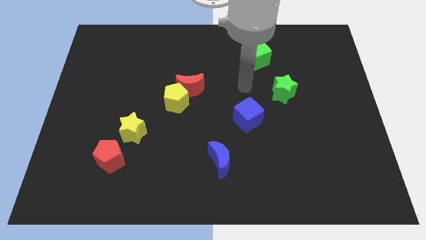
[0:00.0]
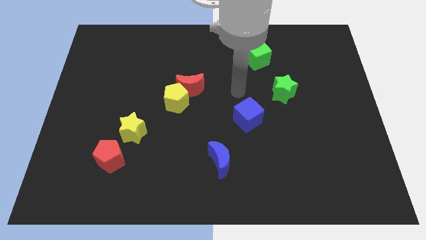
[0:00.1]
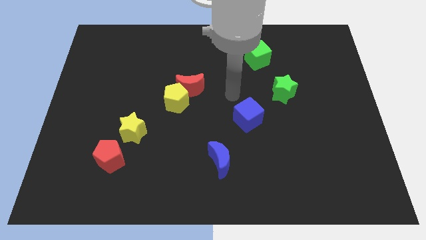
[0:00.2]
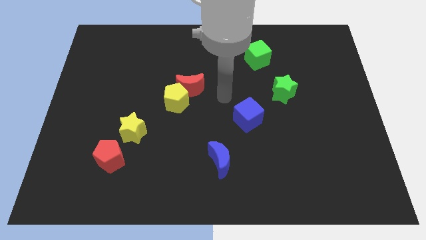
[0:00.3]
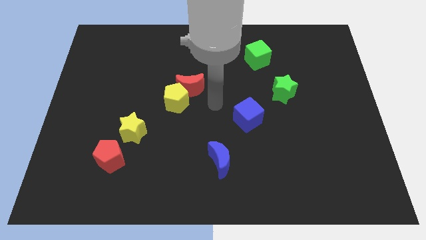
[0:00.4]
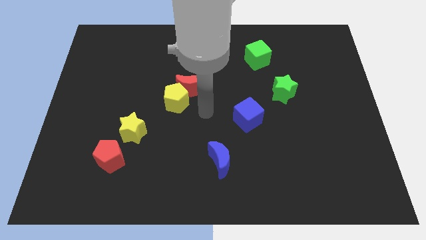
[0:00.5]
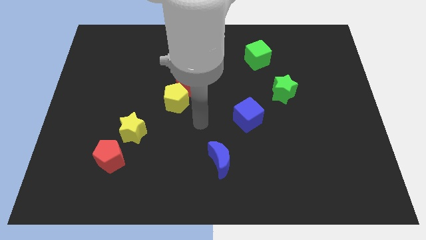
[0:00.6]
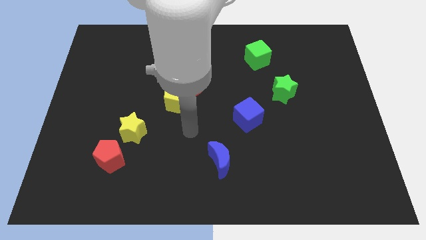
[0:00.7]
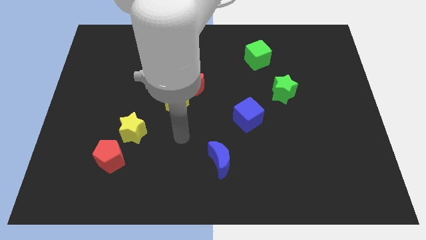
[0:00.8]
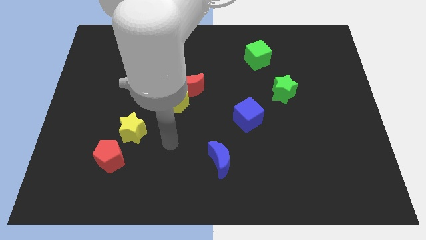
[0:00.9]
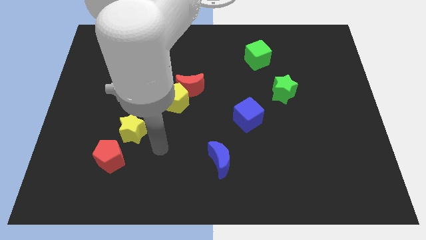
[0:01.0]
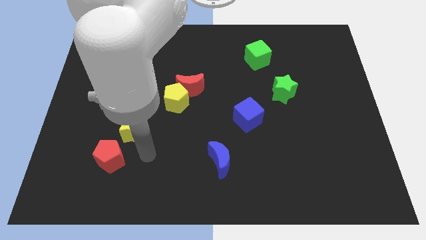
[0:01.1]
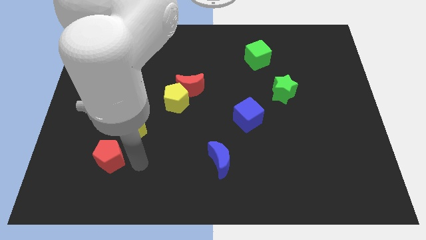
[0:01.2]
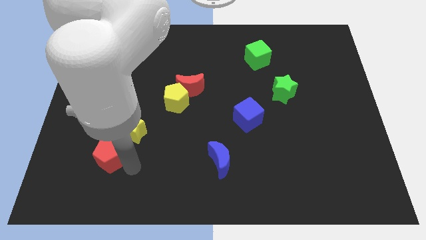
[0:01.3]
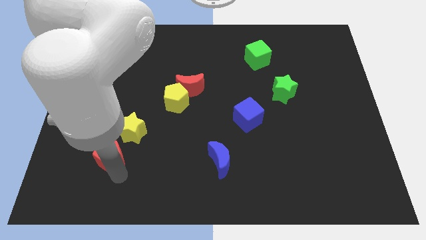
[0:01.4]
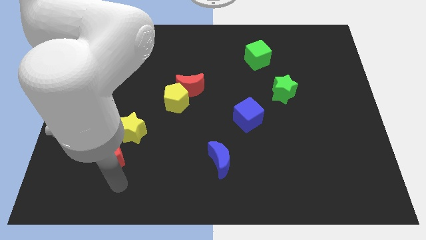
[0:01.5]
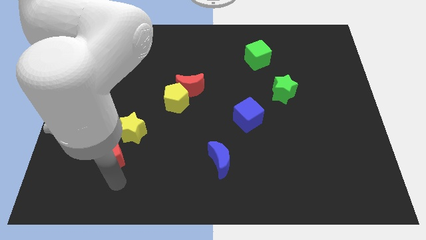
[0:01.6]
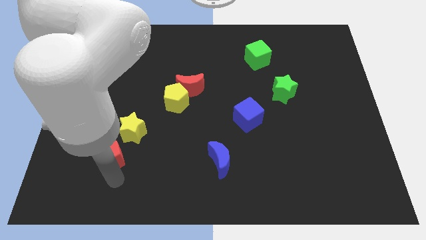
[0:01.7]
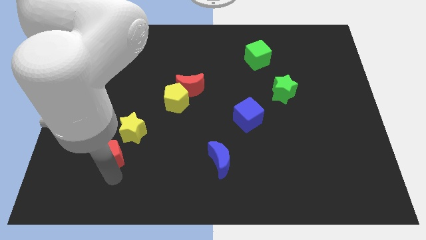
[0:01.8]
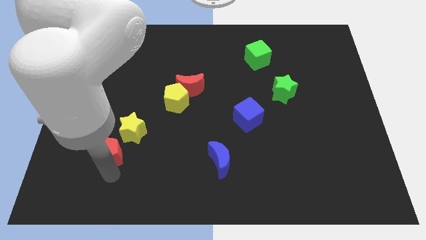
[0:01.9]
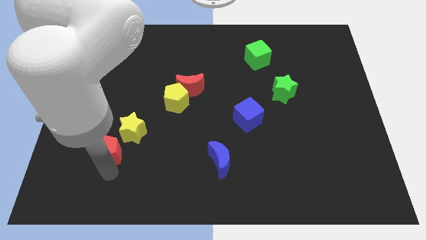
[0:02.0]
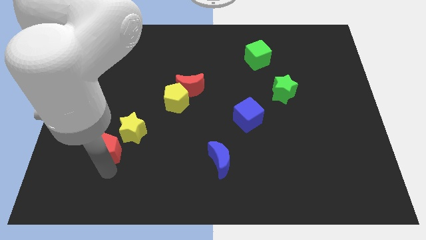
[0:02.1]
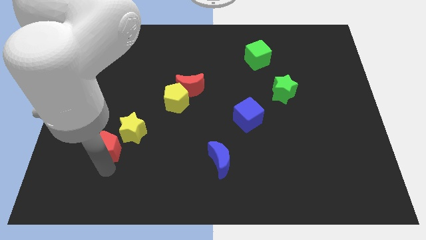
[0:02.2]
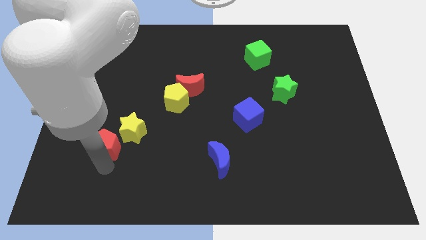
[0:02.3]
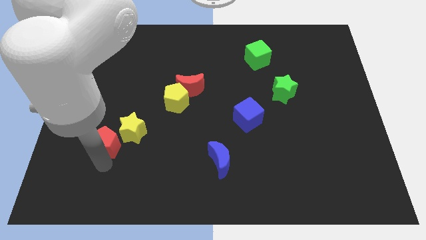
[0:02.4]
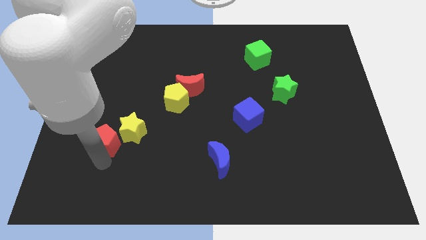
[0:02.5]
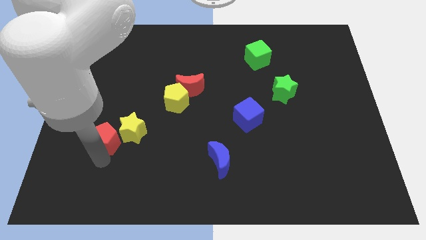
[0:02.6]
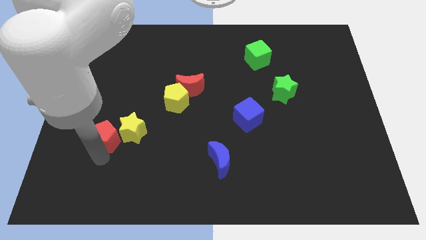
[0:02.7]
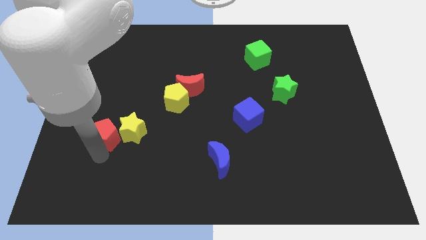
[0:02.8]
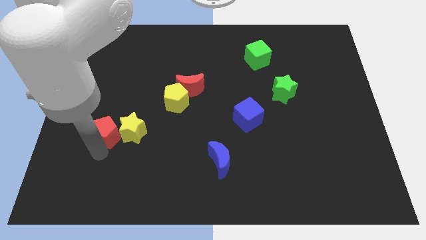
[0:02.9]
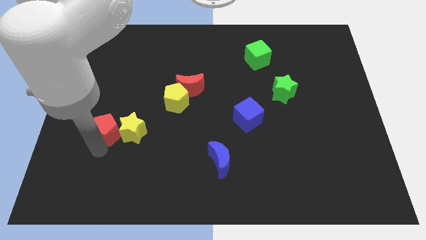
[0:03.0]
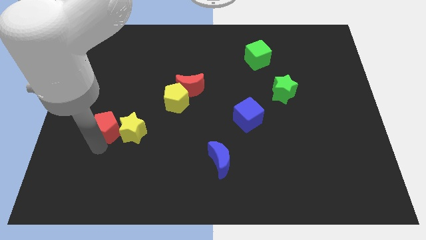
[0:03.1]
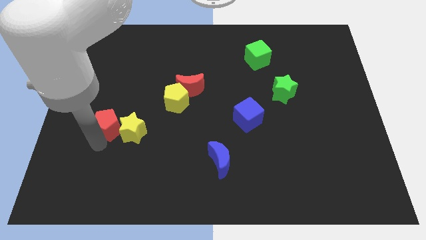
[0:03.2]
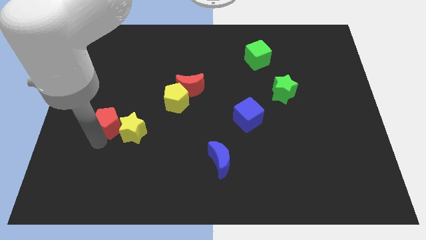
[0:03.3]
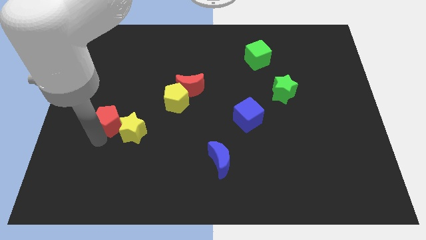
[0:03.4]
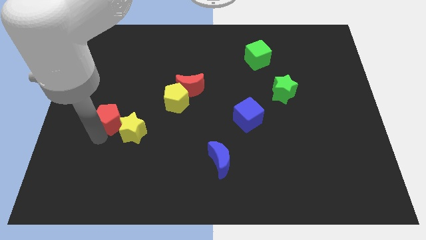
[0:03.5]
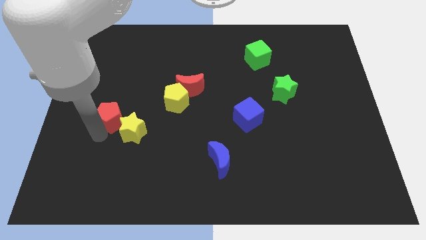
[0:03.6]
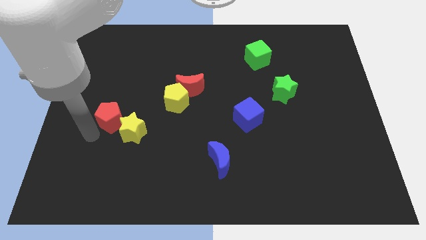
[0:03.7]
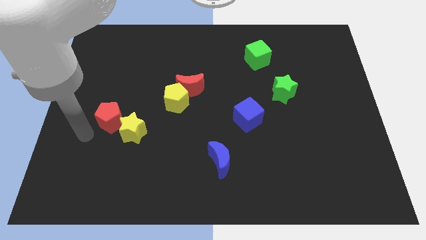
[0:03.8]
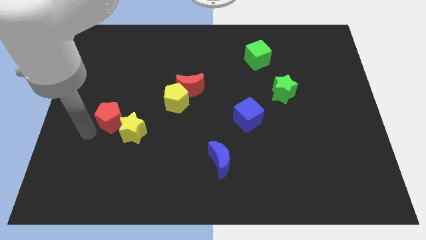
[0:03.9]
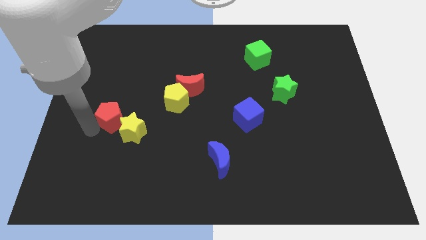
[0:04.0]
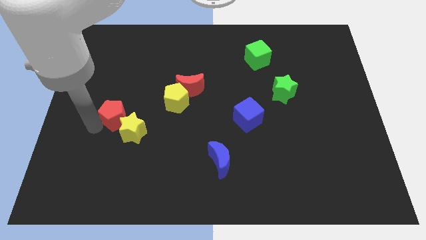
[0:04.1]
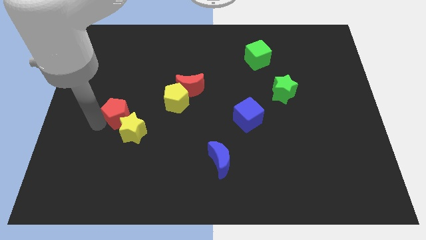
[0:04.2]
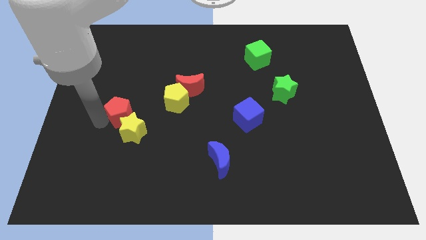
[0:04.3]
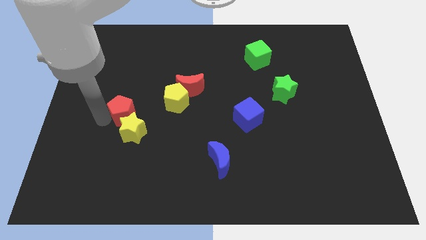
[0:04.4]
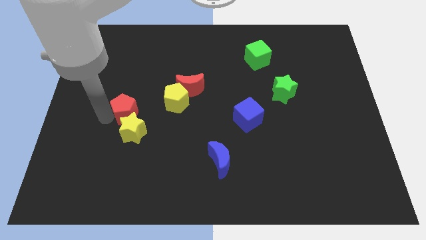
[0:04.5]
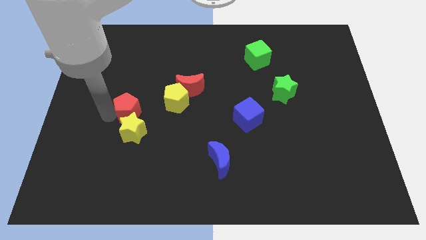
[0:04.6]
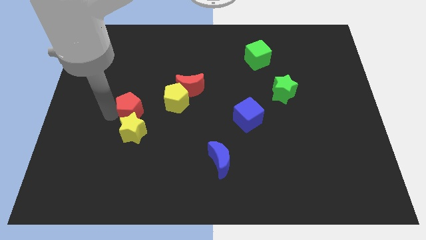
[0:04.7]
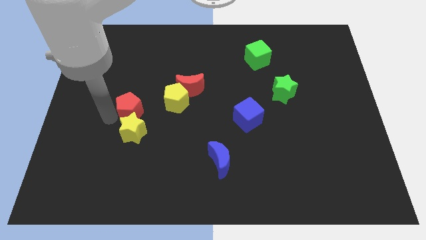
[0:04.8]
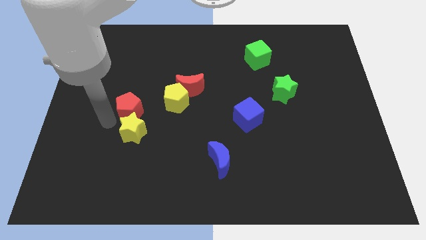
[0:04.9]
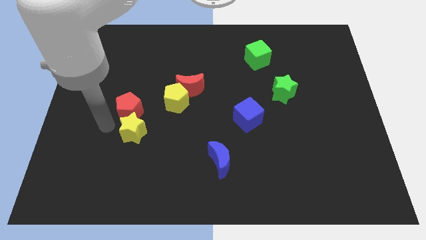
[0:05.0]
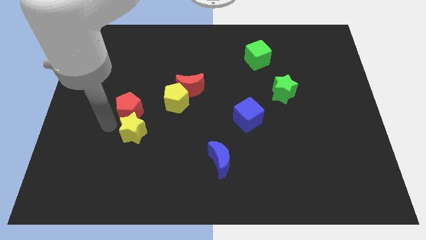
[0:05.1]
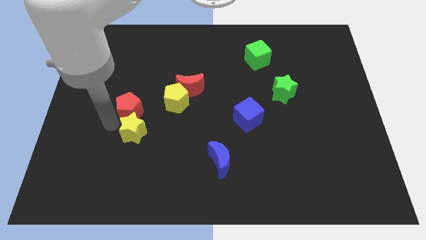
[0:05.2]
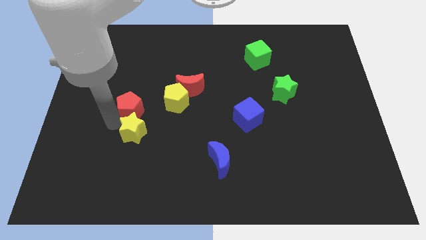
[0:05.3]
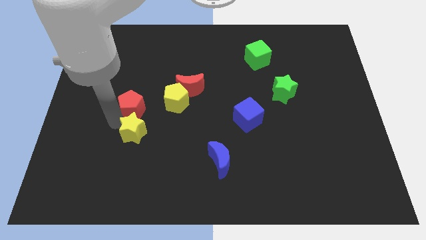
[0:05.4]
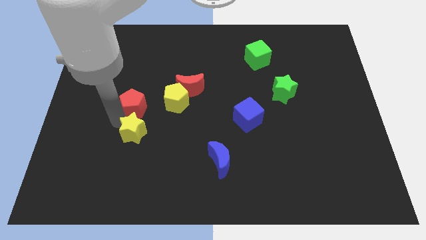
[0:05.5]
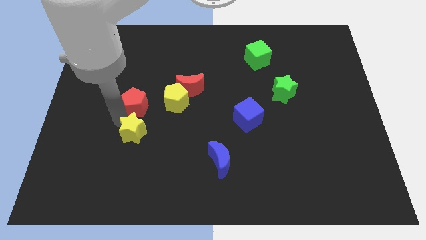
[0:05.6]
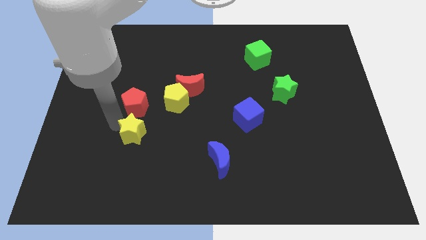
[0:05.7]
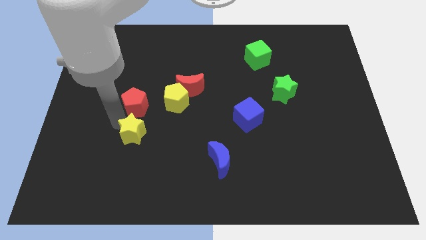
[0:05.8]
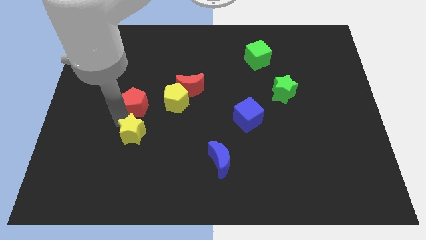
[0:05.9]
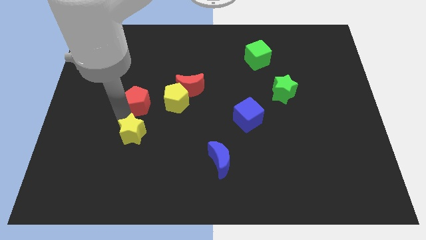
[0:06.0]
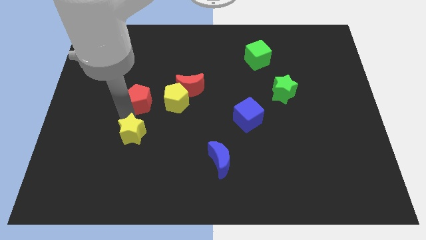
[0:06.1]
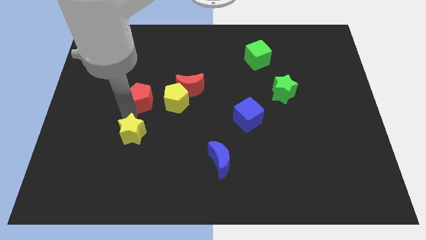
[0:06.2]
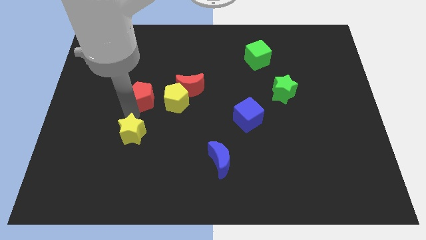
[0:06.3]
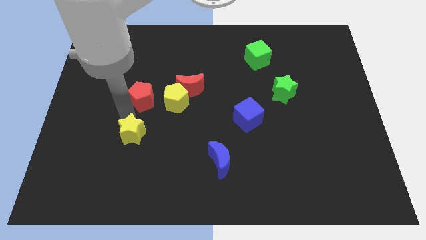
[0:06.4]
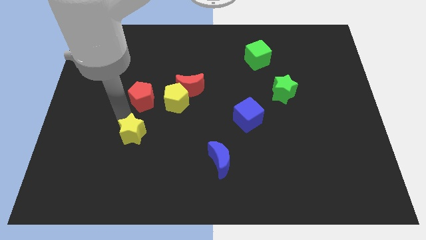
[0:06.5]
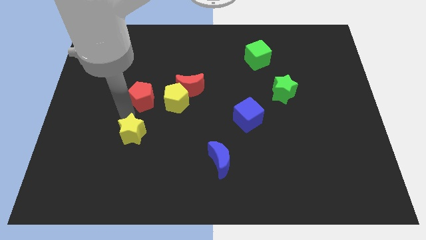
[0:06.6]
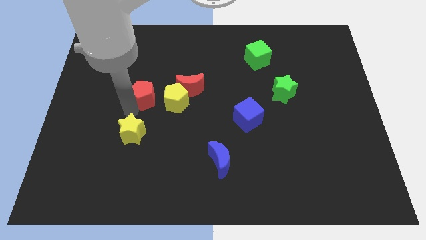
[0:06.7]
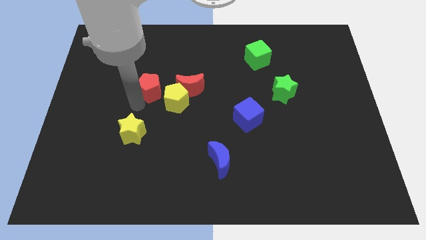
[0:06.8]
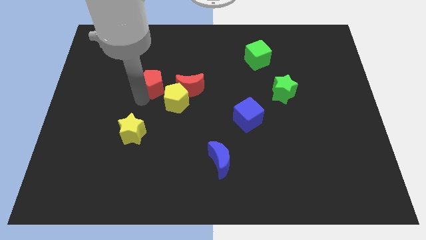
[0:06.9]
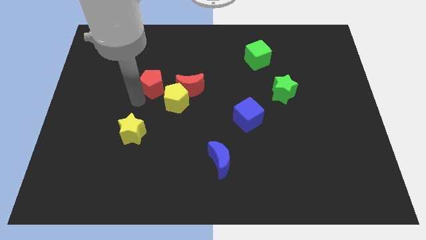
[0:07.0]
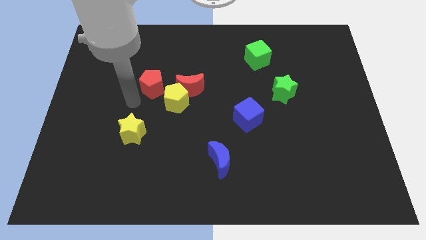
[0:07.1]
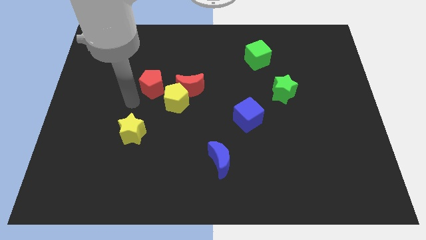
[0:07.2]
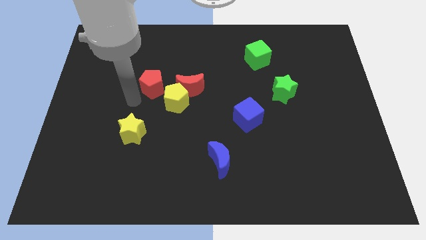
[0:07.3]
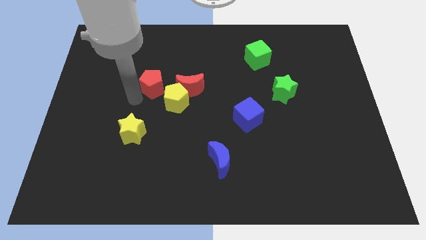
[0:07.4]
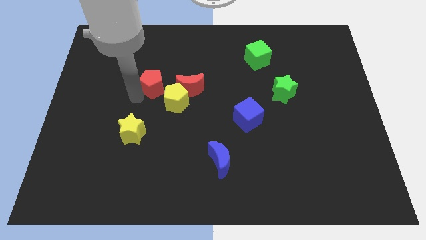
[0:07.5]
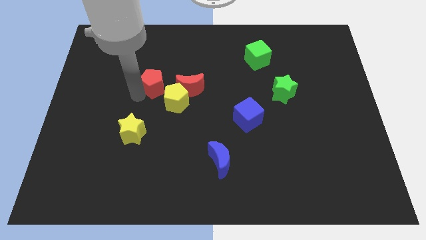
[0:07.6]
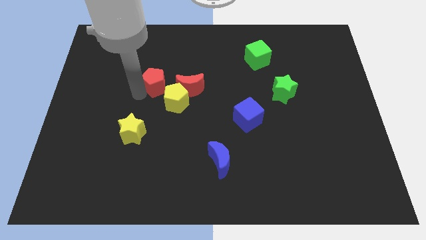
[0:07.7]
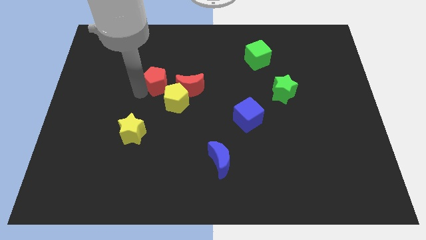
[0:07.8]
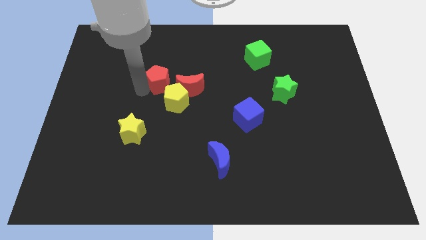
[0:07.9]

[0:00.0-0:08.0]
slide the red pentagon to the top side of the yellow pentagon
